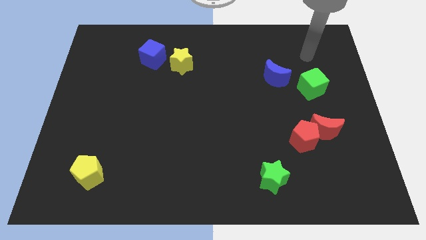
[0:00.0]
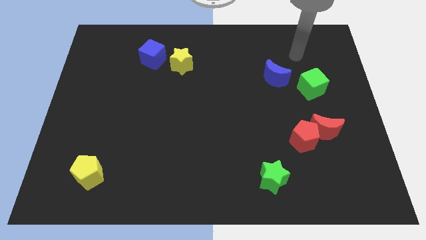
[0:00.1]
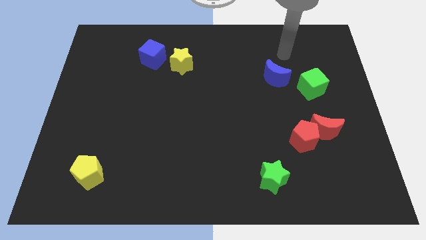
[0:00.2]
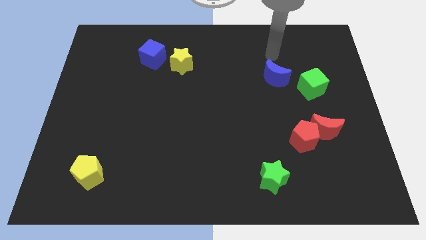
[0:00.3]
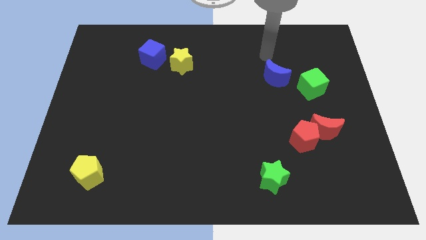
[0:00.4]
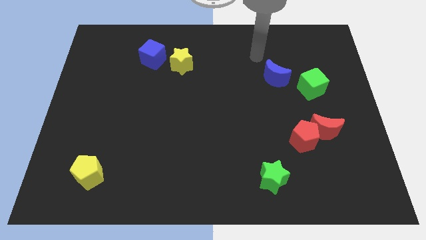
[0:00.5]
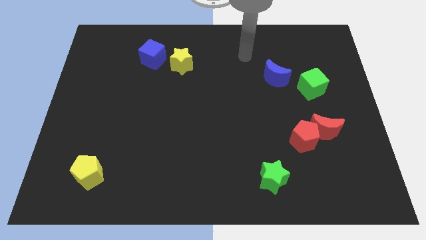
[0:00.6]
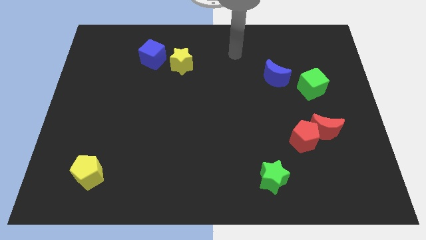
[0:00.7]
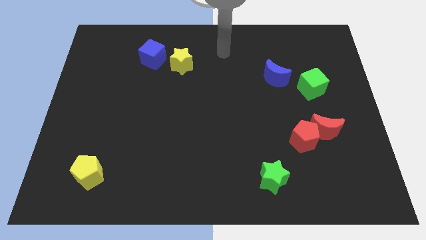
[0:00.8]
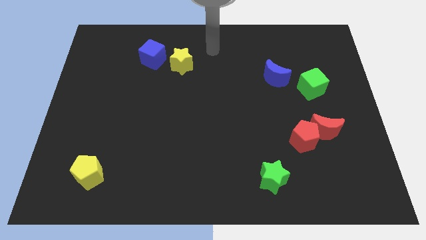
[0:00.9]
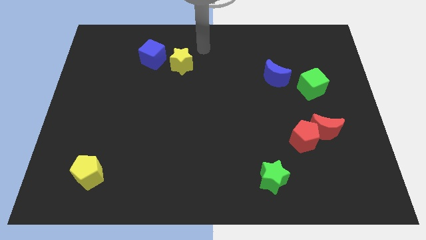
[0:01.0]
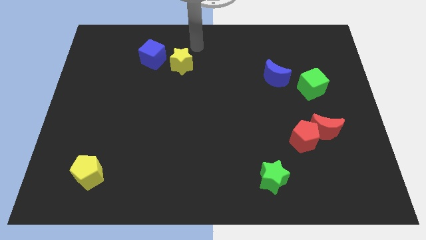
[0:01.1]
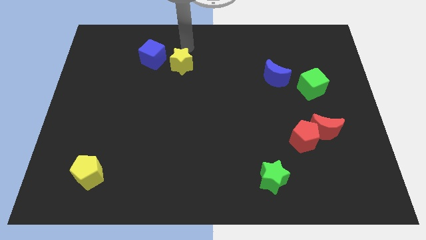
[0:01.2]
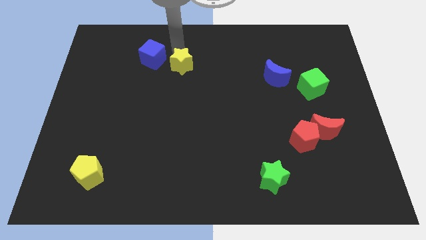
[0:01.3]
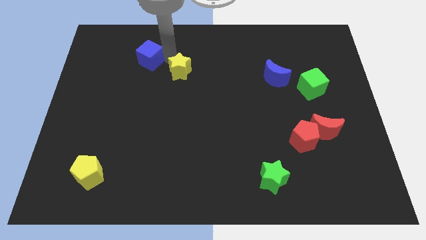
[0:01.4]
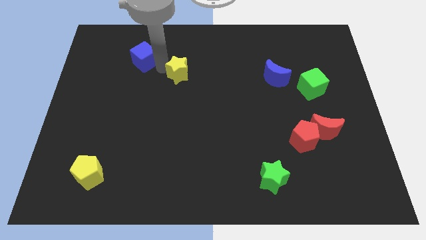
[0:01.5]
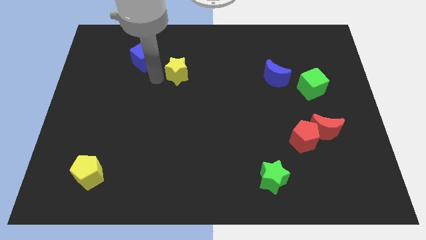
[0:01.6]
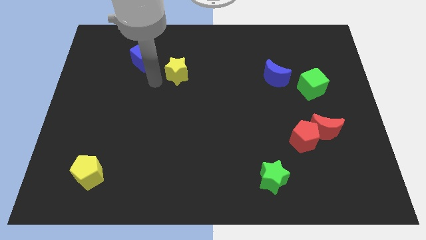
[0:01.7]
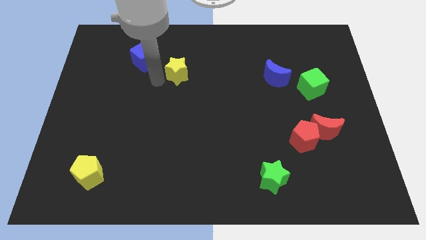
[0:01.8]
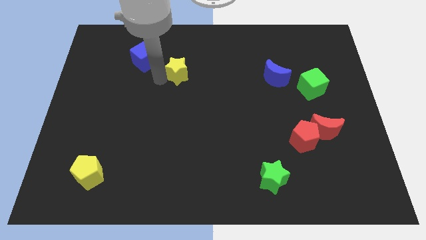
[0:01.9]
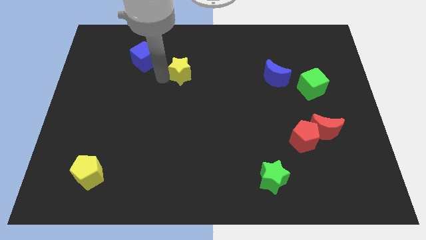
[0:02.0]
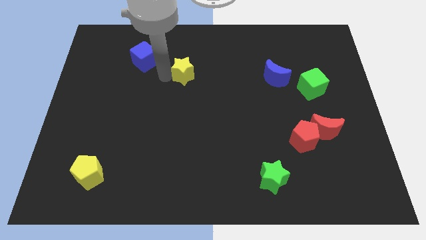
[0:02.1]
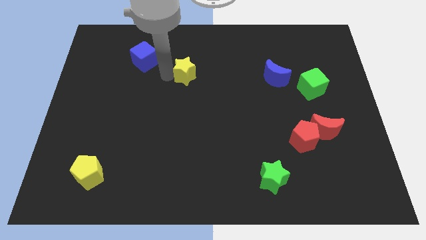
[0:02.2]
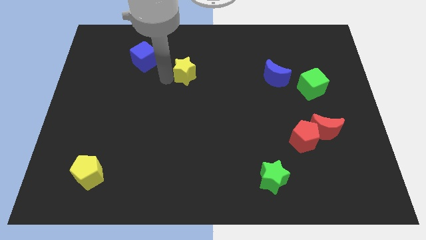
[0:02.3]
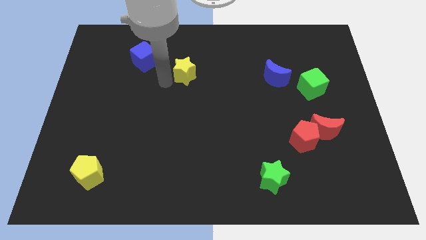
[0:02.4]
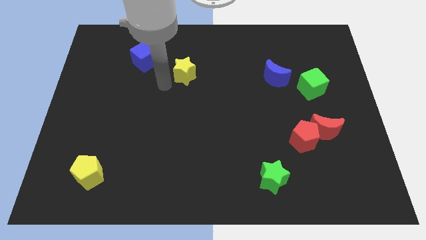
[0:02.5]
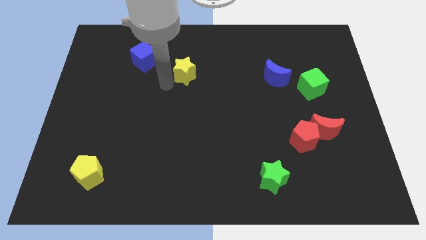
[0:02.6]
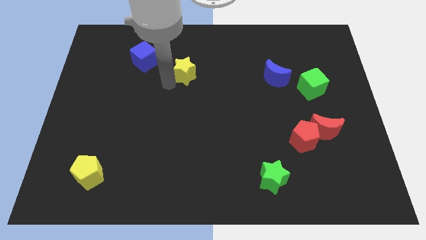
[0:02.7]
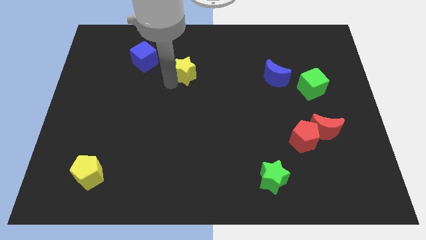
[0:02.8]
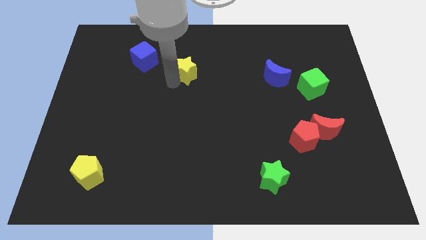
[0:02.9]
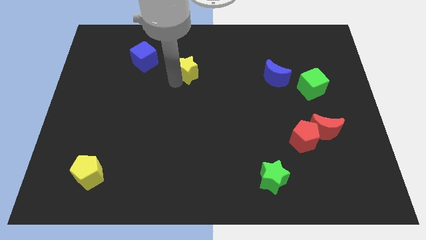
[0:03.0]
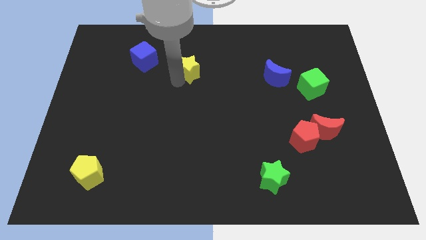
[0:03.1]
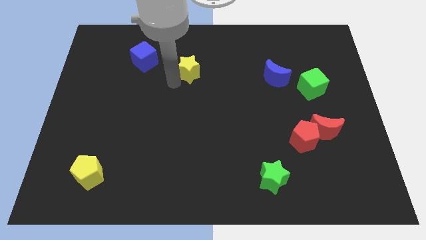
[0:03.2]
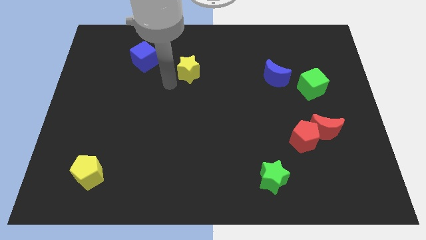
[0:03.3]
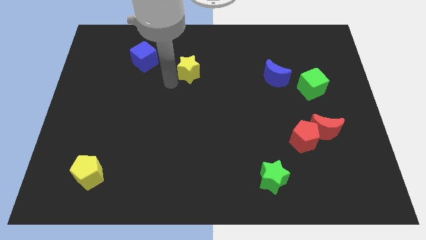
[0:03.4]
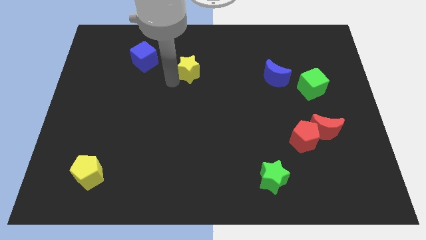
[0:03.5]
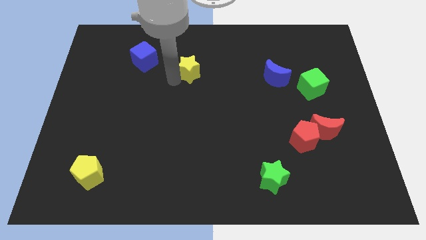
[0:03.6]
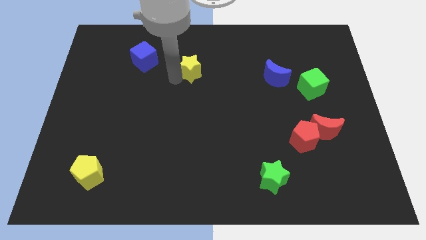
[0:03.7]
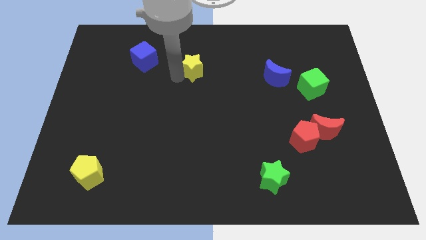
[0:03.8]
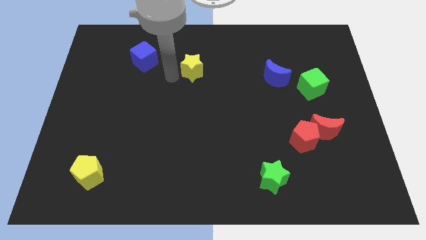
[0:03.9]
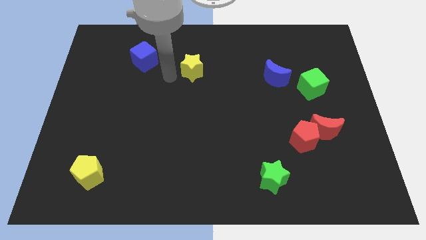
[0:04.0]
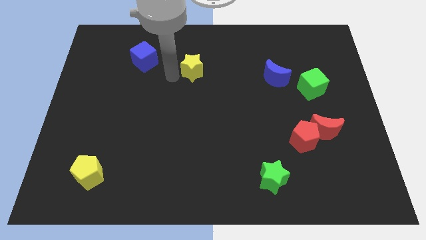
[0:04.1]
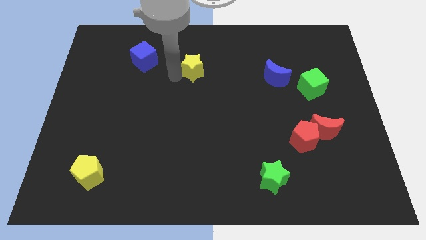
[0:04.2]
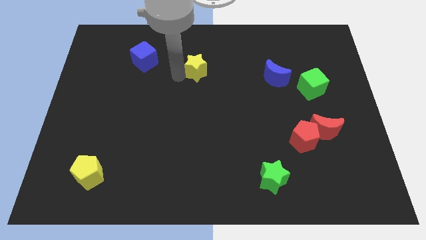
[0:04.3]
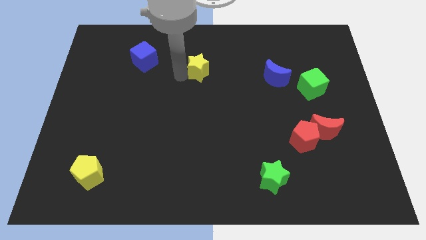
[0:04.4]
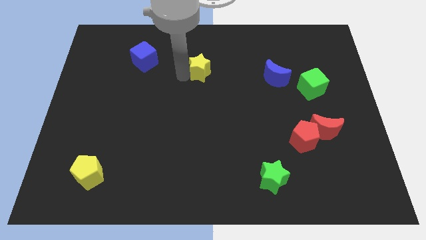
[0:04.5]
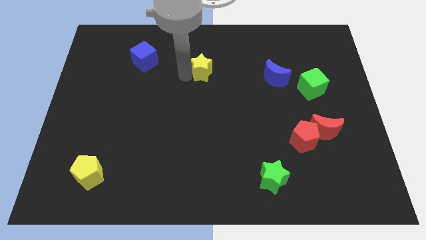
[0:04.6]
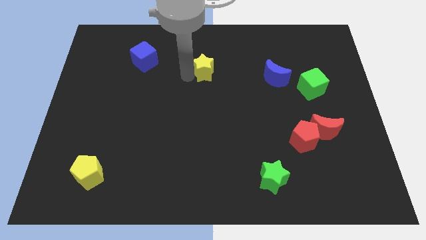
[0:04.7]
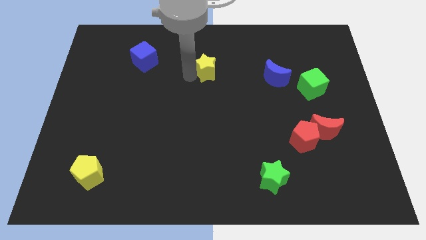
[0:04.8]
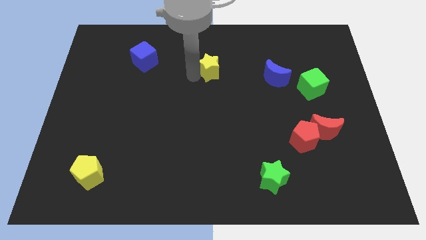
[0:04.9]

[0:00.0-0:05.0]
slide the yellow star right slightly

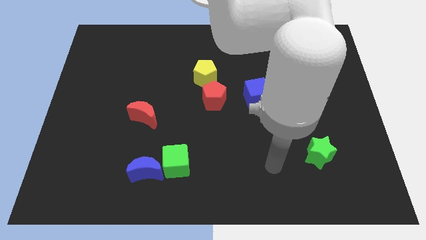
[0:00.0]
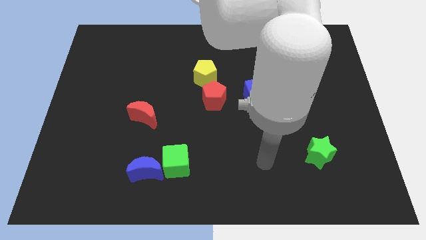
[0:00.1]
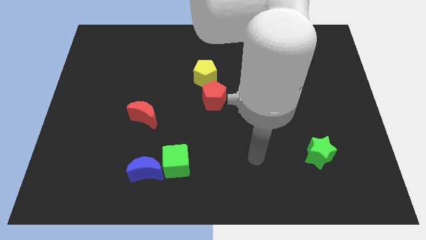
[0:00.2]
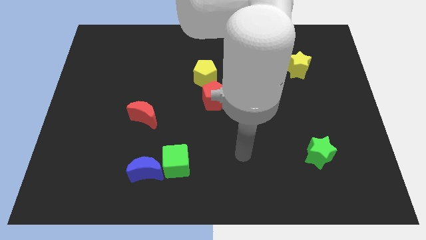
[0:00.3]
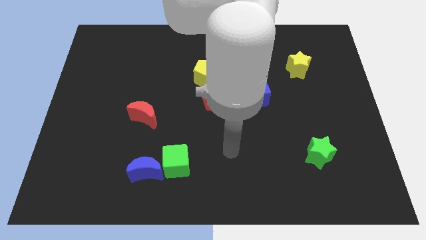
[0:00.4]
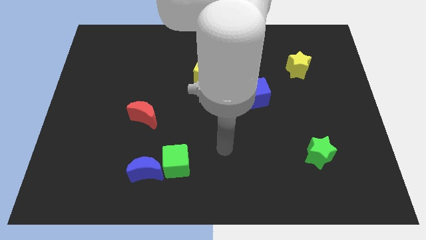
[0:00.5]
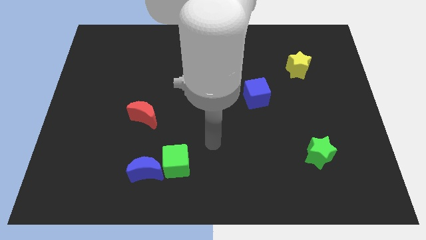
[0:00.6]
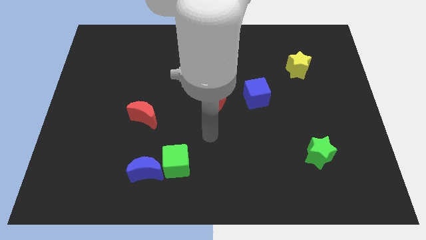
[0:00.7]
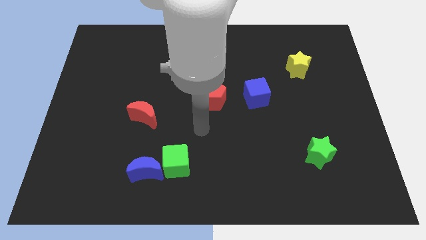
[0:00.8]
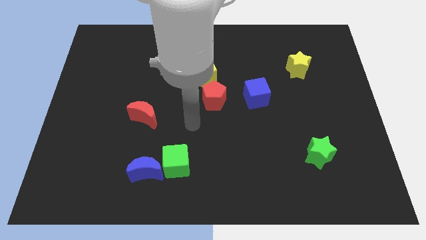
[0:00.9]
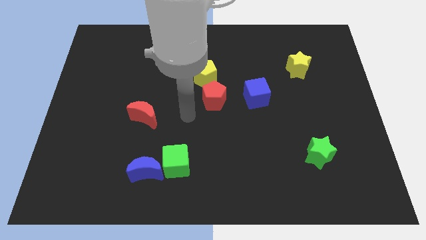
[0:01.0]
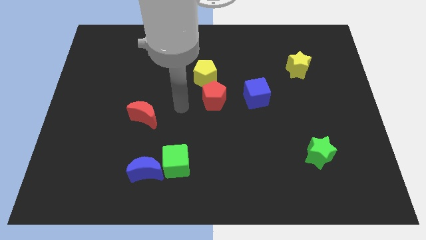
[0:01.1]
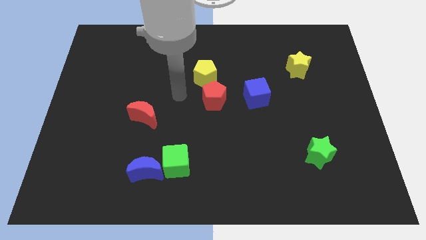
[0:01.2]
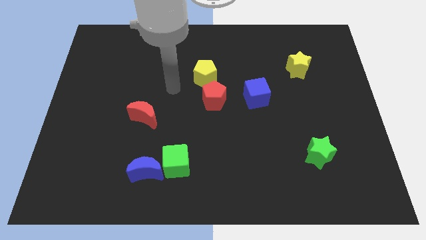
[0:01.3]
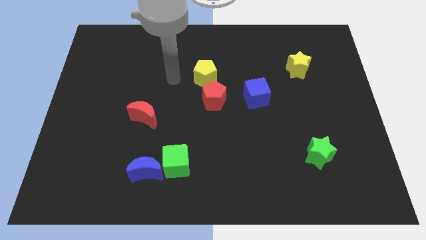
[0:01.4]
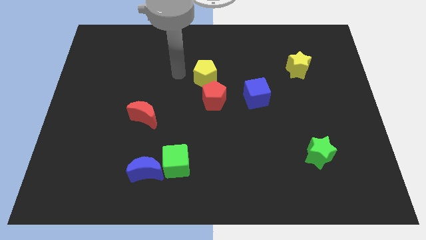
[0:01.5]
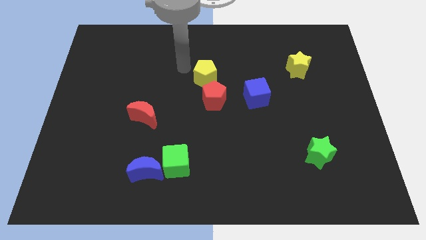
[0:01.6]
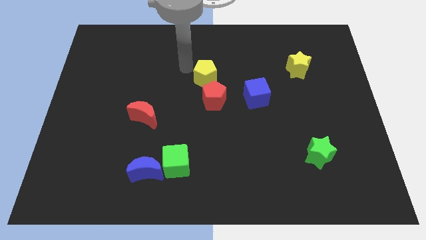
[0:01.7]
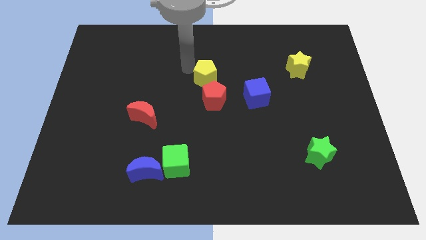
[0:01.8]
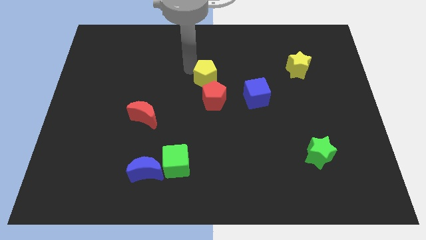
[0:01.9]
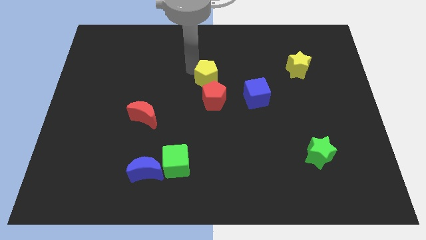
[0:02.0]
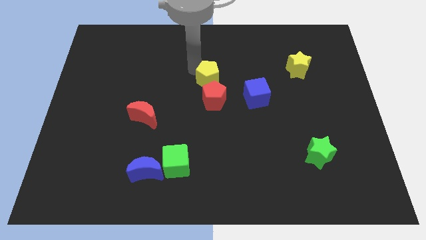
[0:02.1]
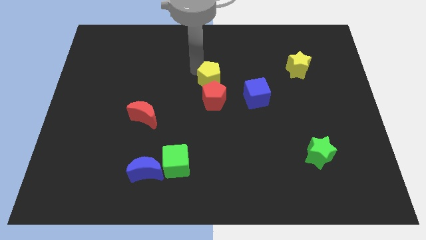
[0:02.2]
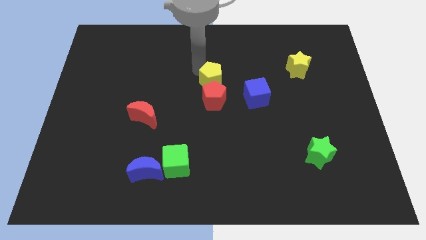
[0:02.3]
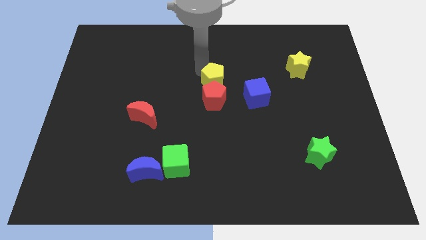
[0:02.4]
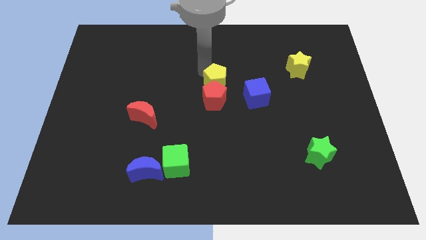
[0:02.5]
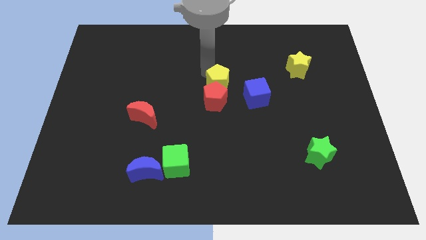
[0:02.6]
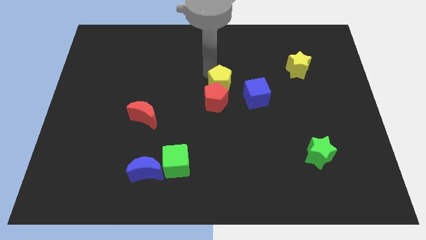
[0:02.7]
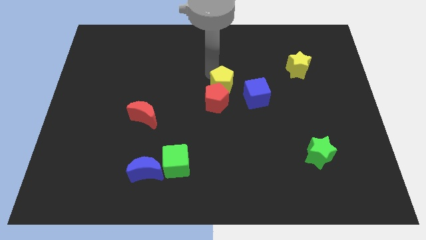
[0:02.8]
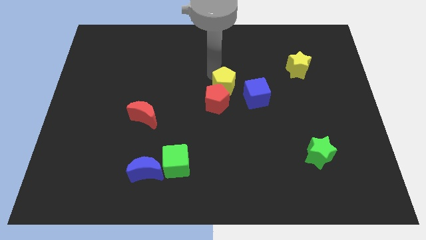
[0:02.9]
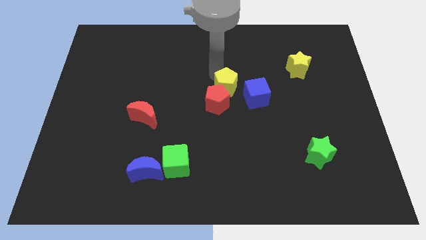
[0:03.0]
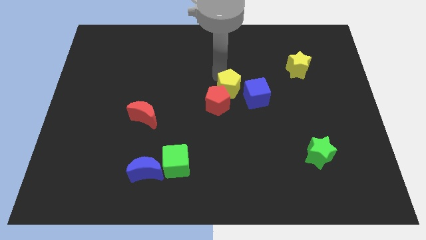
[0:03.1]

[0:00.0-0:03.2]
push the yellow pentagon a bit downwards and to the right diagonally

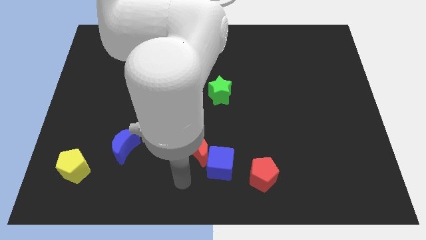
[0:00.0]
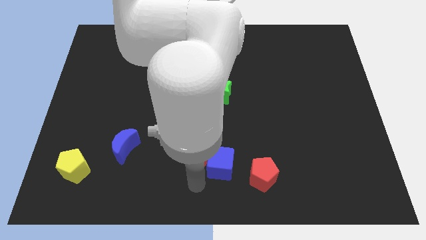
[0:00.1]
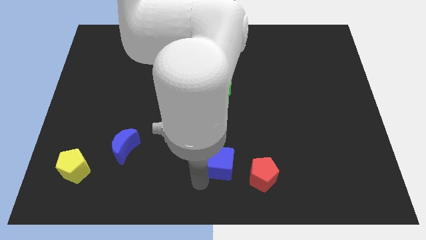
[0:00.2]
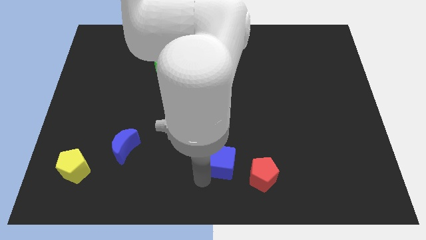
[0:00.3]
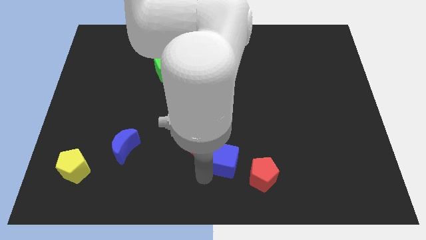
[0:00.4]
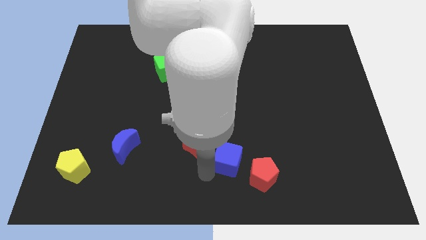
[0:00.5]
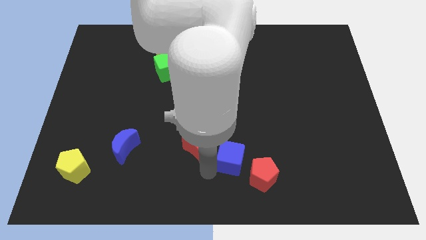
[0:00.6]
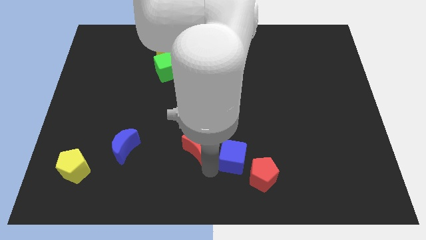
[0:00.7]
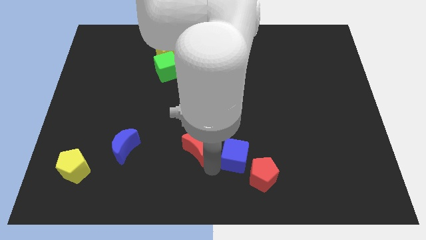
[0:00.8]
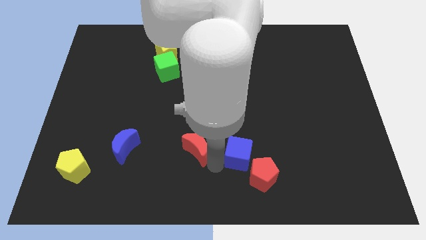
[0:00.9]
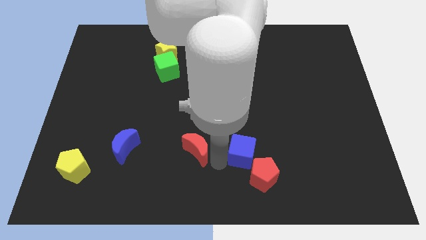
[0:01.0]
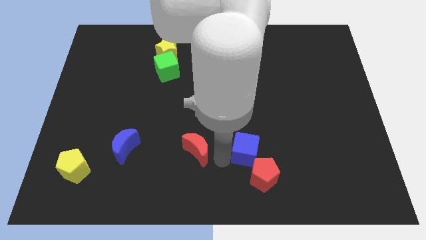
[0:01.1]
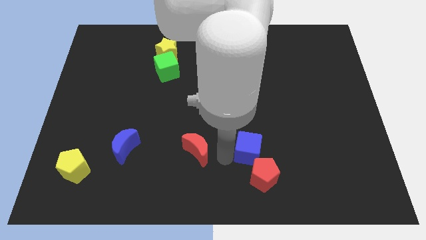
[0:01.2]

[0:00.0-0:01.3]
slide the blue cube up and right diagonally a little
